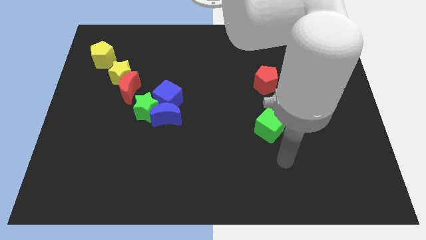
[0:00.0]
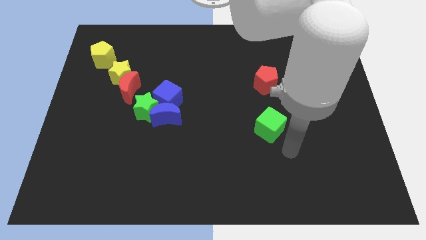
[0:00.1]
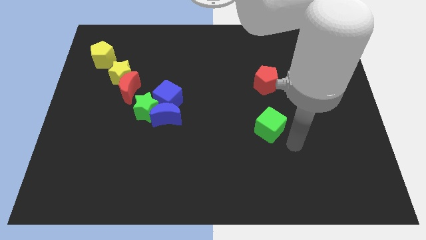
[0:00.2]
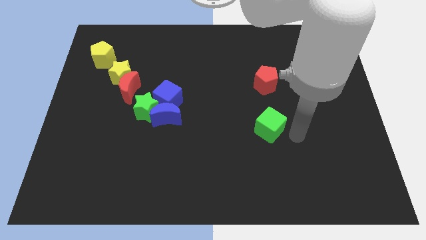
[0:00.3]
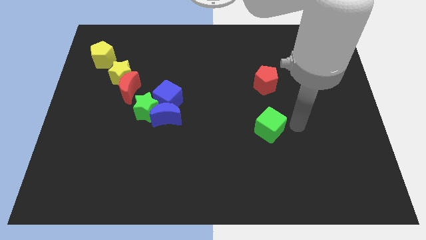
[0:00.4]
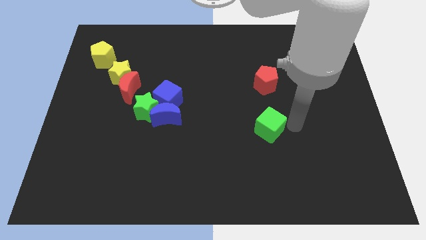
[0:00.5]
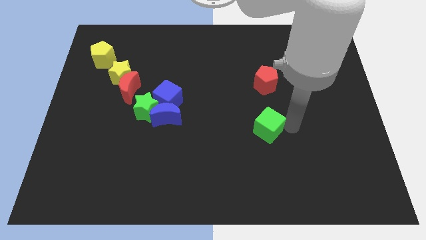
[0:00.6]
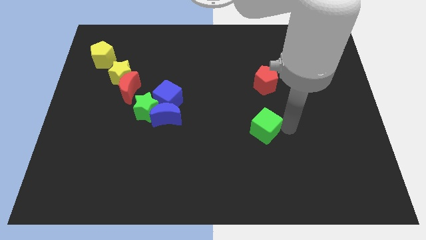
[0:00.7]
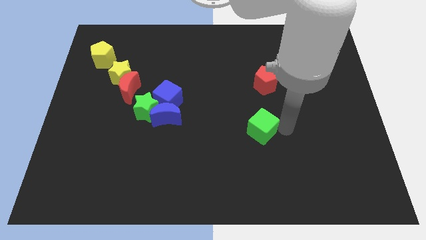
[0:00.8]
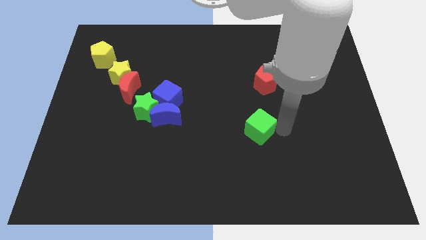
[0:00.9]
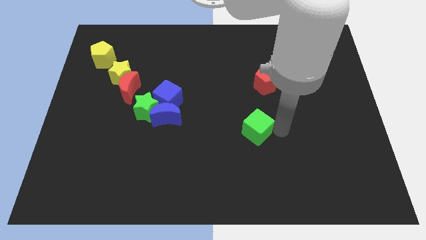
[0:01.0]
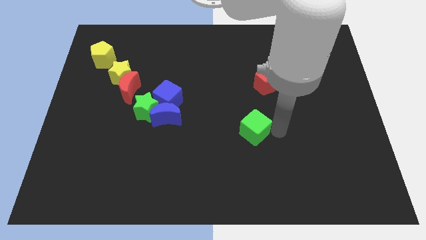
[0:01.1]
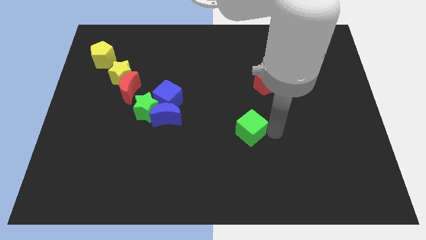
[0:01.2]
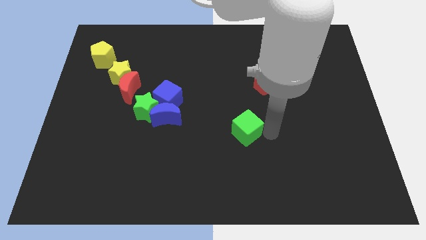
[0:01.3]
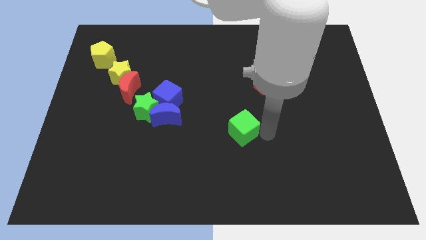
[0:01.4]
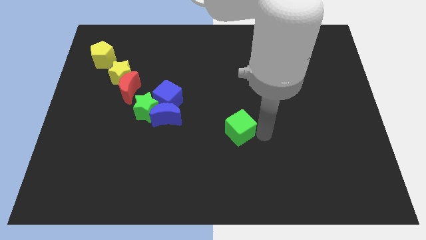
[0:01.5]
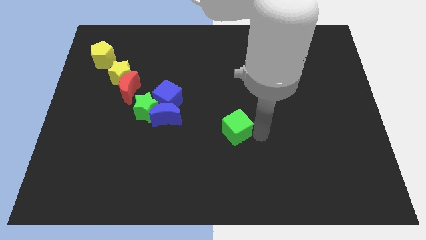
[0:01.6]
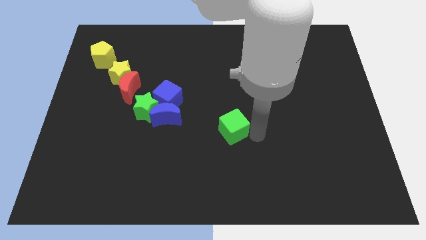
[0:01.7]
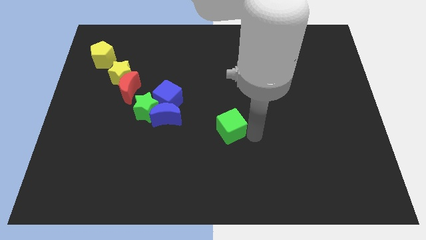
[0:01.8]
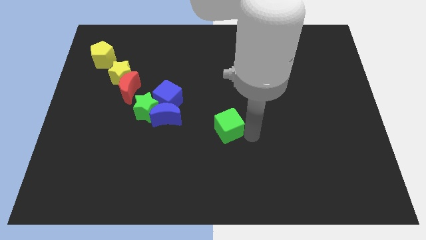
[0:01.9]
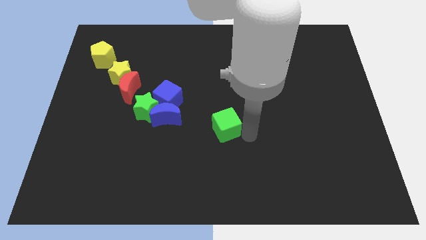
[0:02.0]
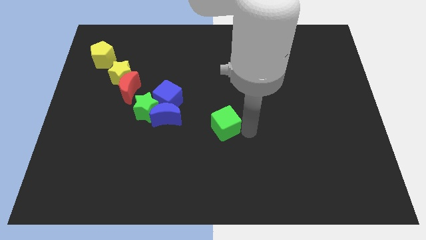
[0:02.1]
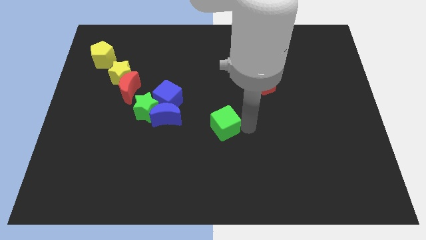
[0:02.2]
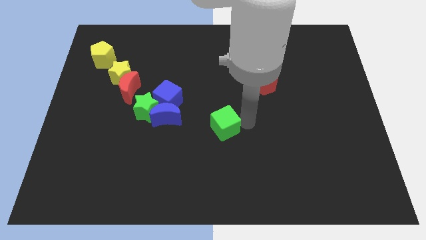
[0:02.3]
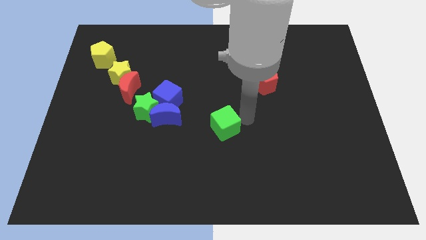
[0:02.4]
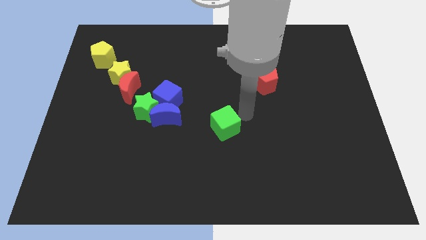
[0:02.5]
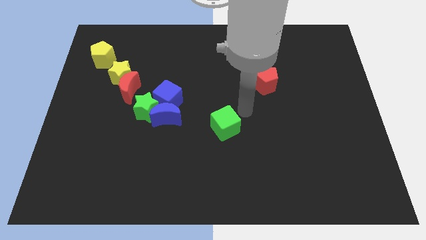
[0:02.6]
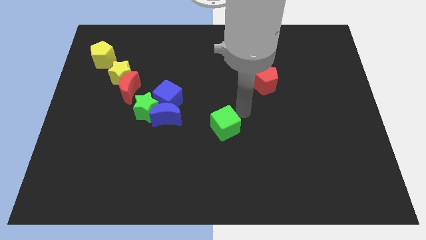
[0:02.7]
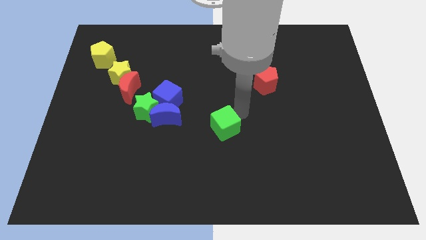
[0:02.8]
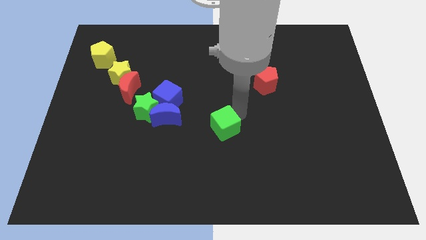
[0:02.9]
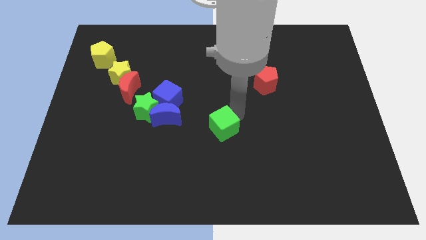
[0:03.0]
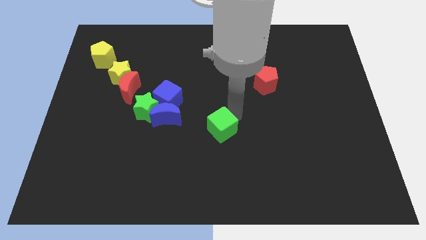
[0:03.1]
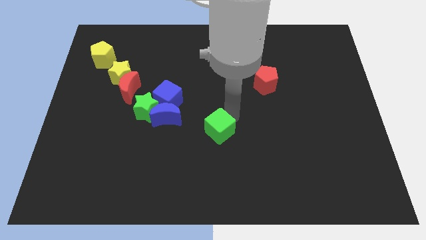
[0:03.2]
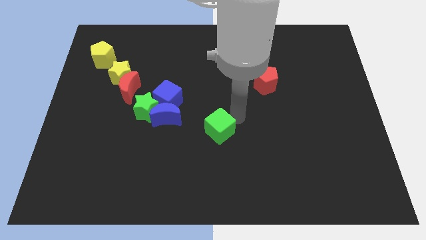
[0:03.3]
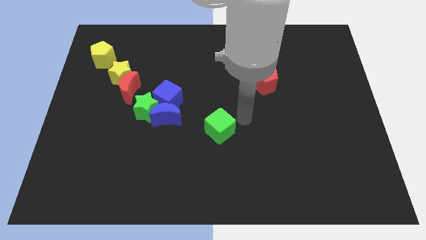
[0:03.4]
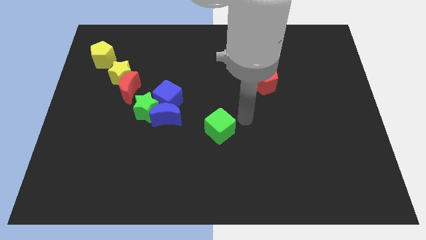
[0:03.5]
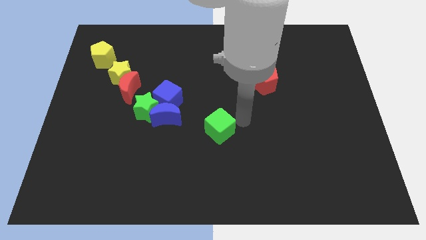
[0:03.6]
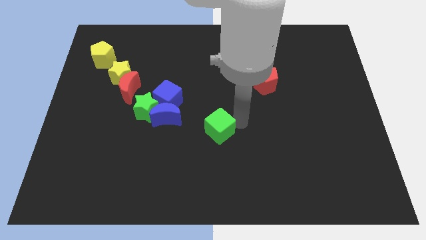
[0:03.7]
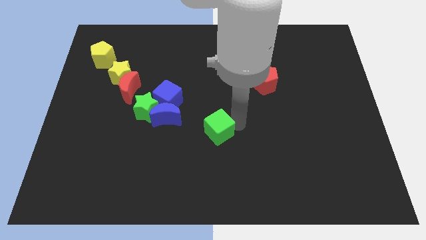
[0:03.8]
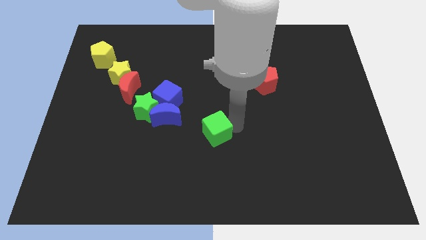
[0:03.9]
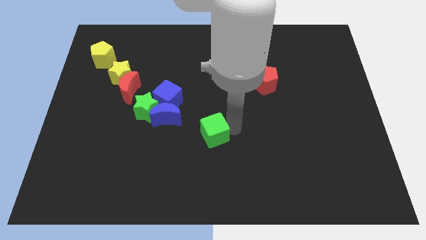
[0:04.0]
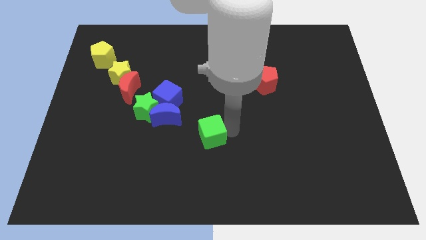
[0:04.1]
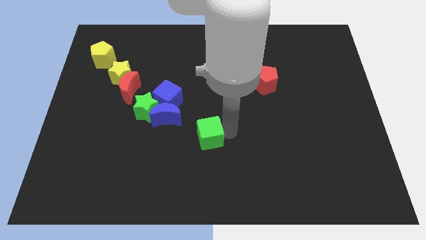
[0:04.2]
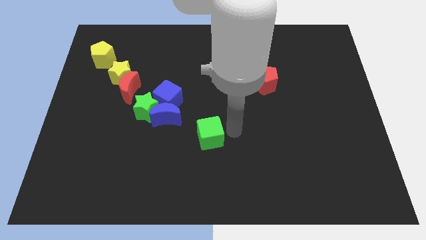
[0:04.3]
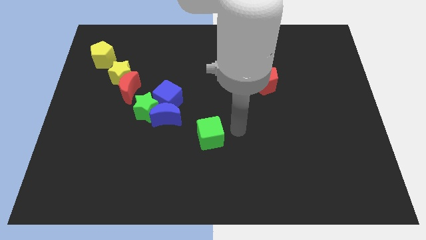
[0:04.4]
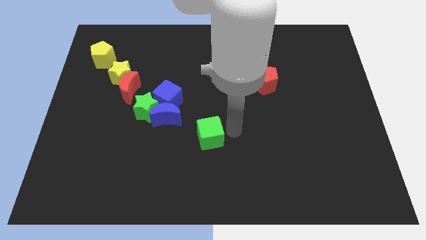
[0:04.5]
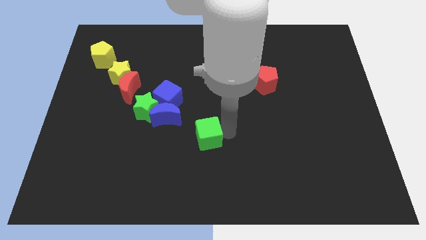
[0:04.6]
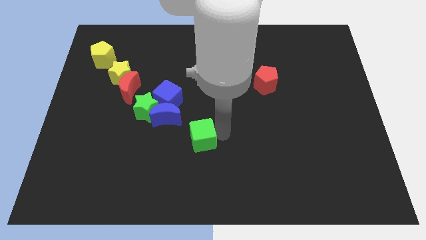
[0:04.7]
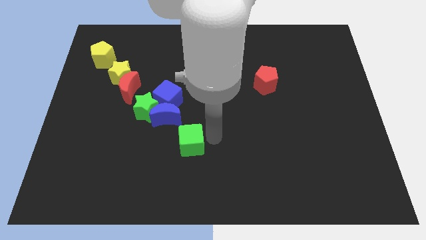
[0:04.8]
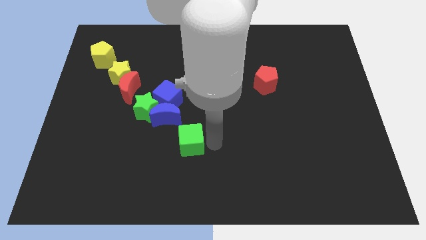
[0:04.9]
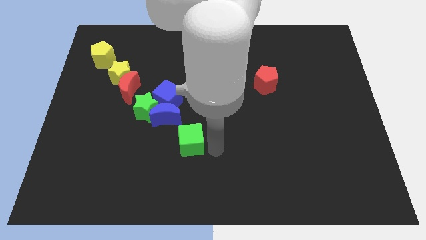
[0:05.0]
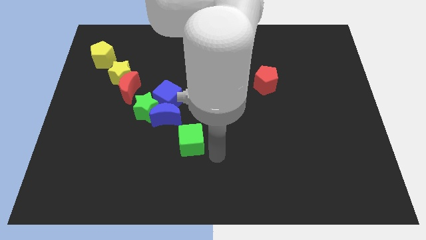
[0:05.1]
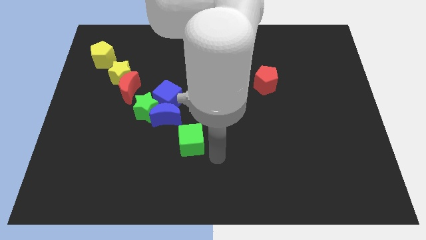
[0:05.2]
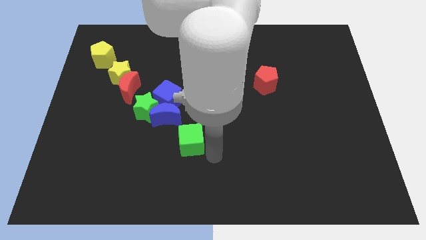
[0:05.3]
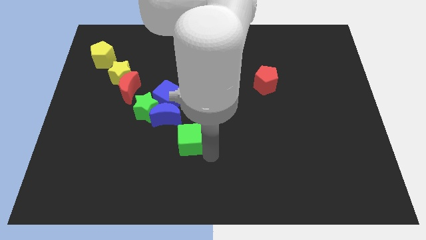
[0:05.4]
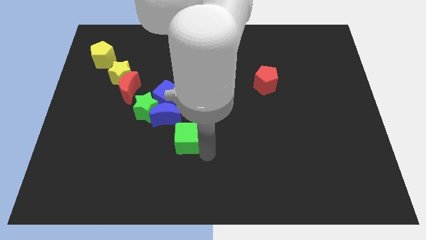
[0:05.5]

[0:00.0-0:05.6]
put the green cube to the bottom right side of the green star

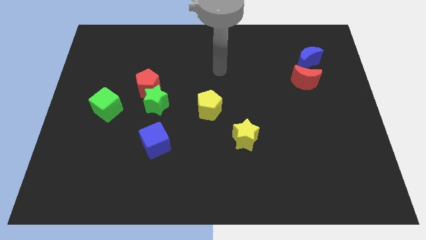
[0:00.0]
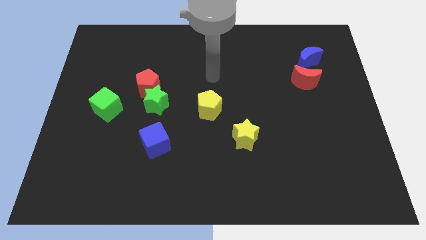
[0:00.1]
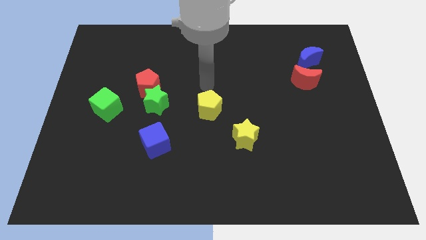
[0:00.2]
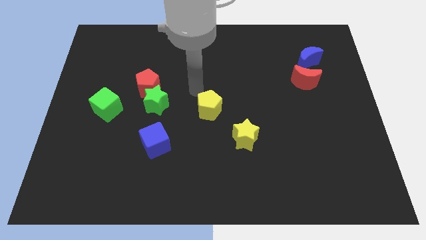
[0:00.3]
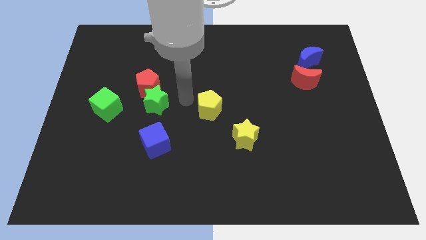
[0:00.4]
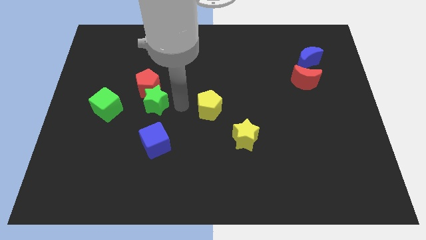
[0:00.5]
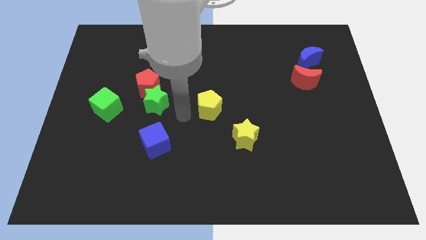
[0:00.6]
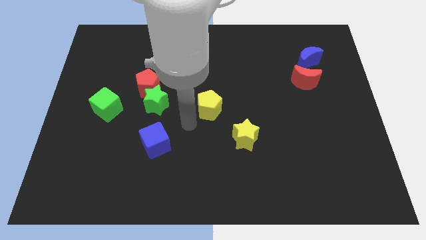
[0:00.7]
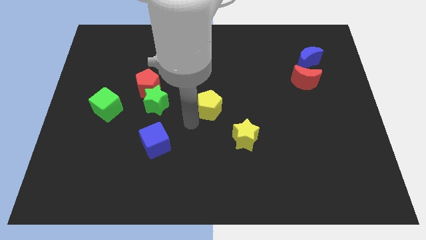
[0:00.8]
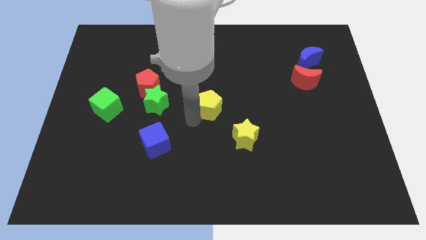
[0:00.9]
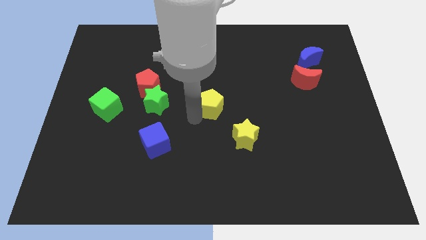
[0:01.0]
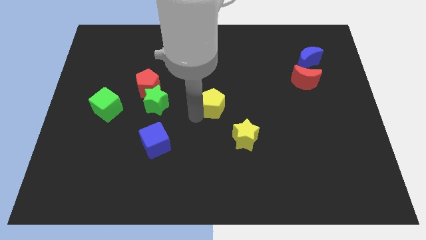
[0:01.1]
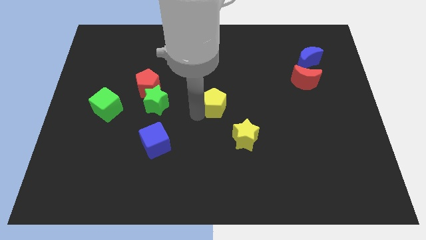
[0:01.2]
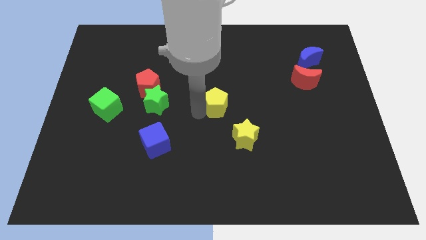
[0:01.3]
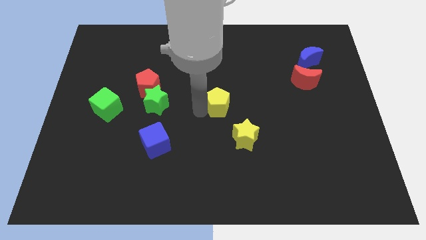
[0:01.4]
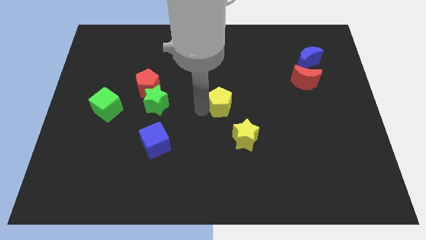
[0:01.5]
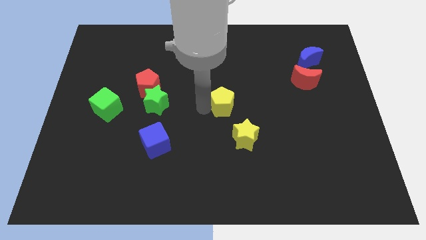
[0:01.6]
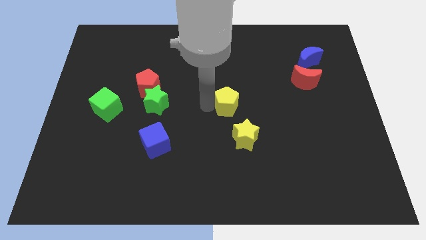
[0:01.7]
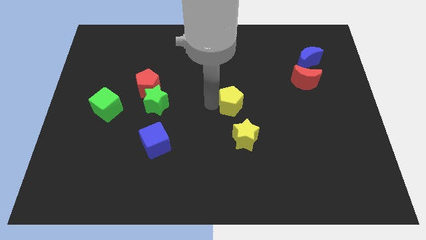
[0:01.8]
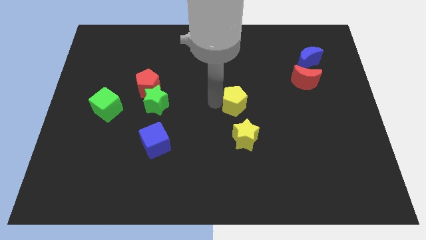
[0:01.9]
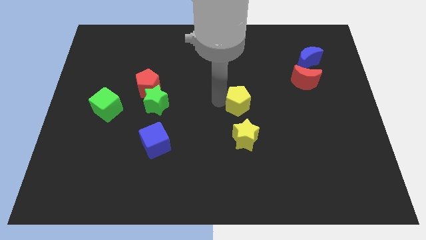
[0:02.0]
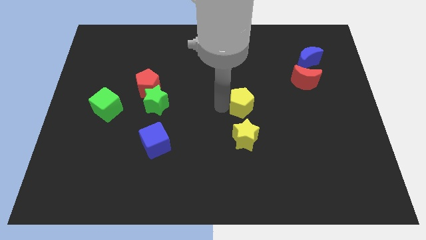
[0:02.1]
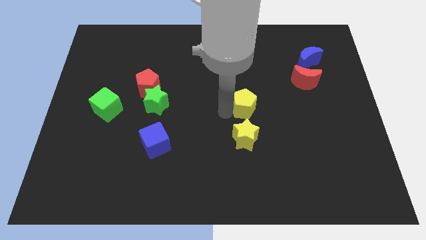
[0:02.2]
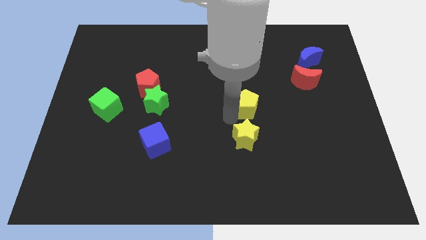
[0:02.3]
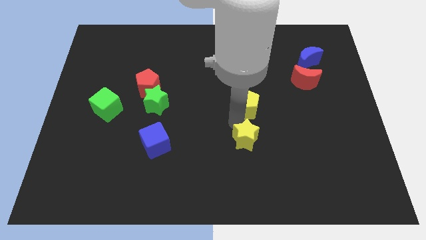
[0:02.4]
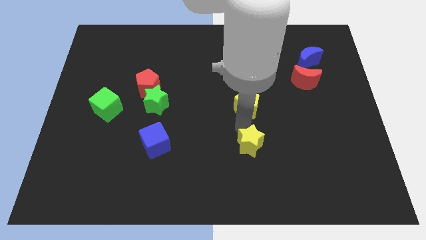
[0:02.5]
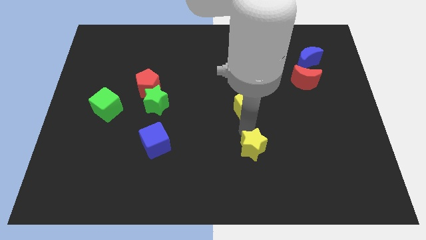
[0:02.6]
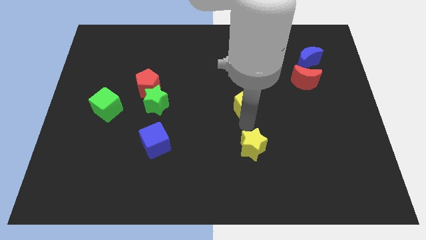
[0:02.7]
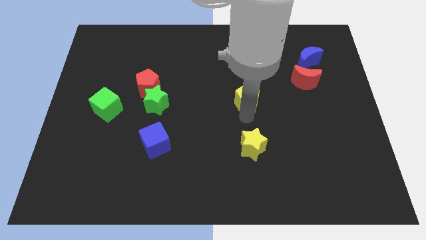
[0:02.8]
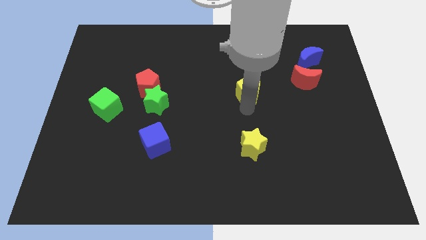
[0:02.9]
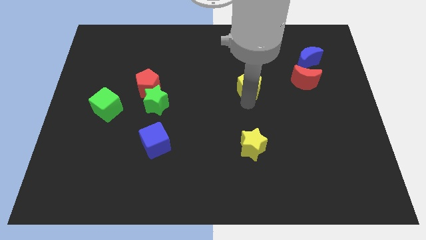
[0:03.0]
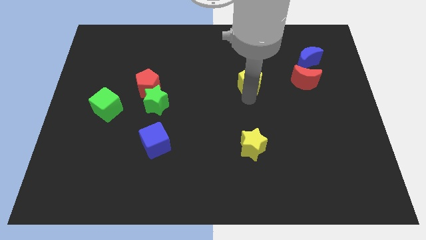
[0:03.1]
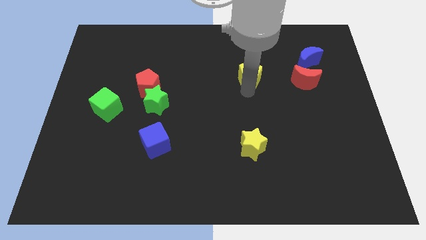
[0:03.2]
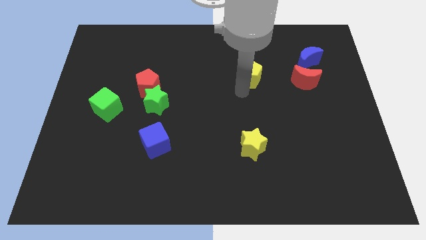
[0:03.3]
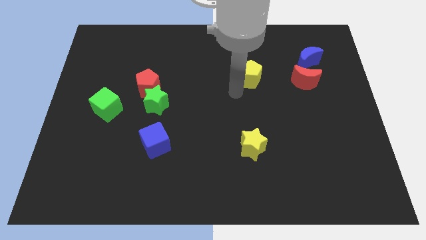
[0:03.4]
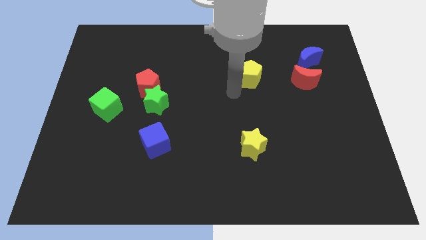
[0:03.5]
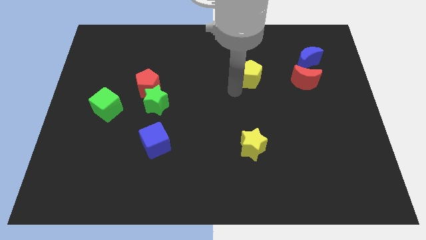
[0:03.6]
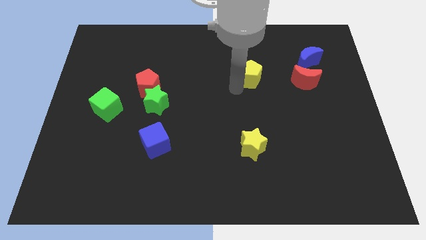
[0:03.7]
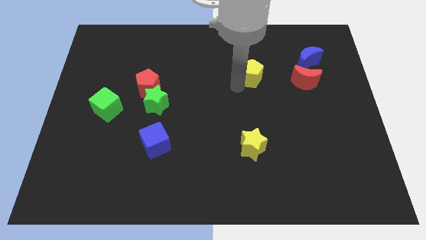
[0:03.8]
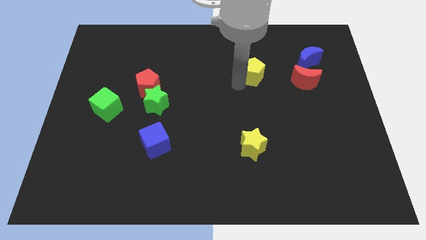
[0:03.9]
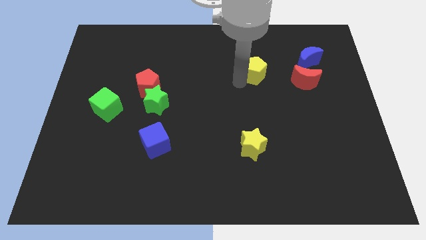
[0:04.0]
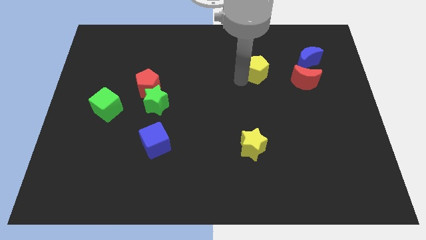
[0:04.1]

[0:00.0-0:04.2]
push the yellow pentagon to the left side of the blue moon
